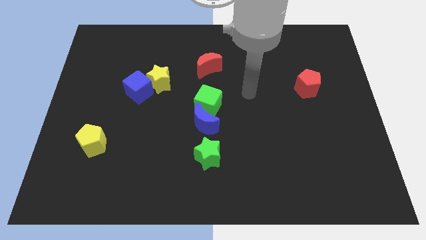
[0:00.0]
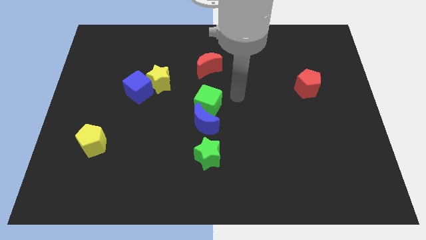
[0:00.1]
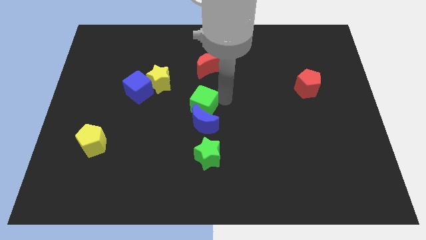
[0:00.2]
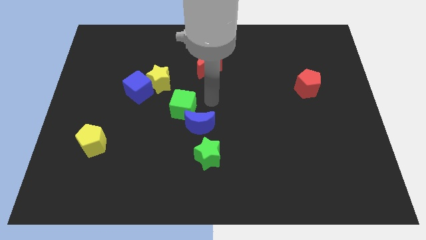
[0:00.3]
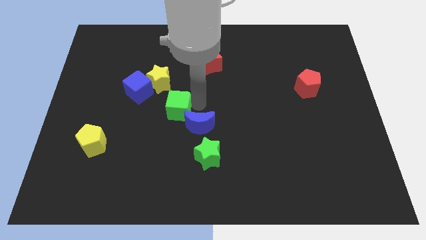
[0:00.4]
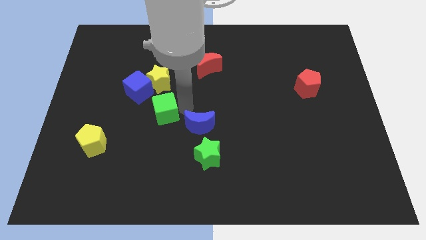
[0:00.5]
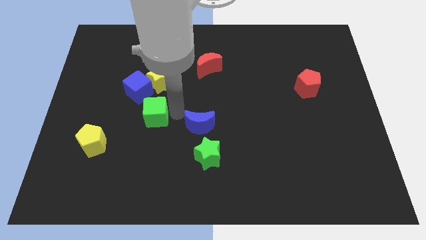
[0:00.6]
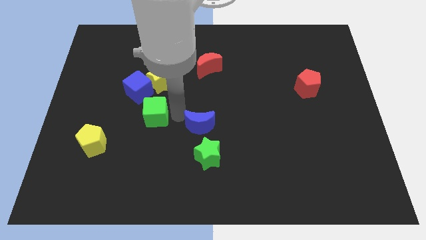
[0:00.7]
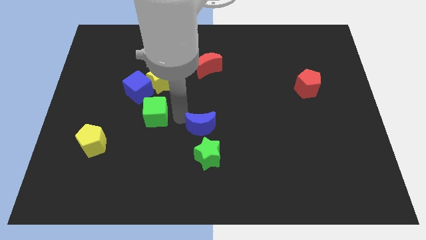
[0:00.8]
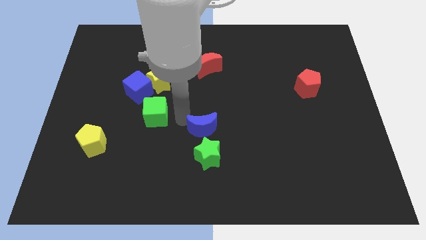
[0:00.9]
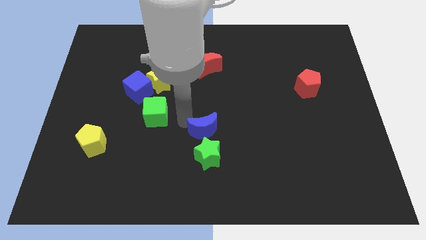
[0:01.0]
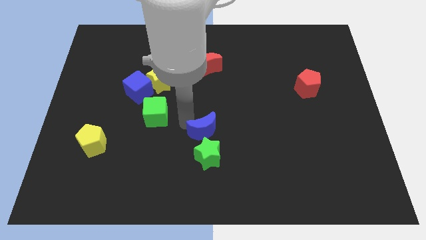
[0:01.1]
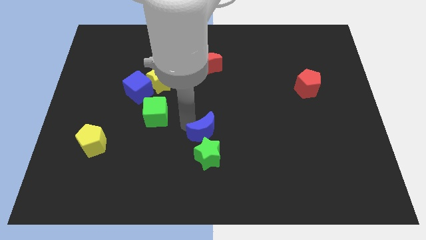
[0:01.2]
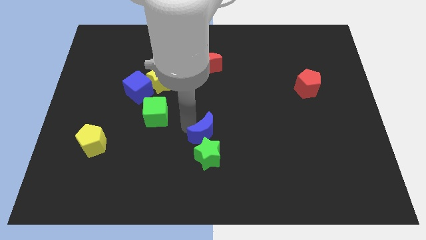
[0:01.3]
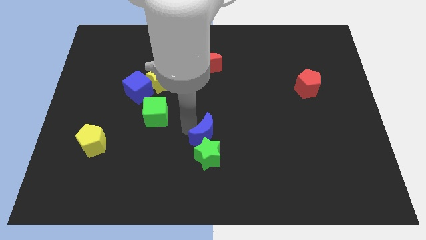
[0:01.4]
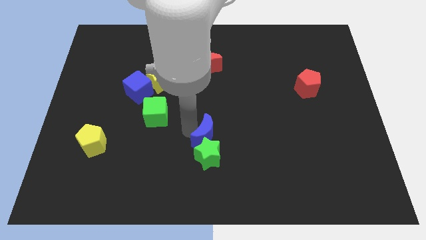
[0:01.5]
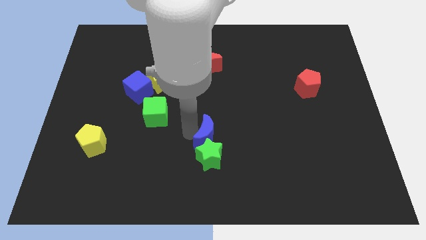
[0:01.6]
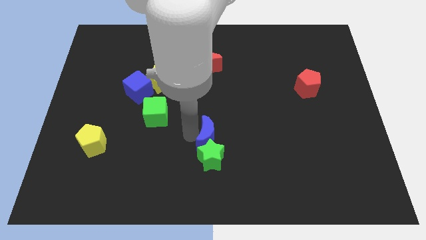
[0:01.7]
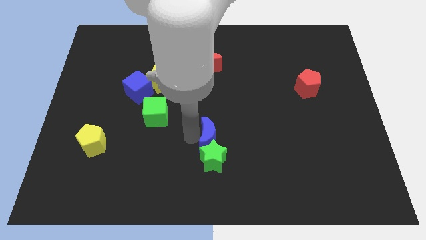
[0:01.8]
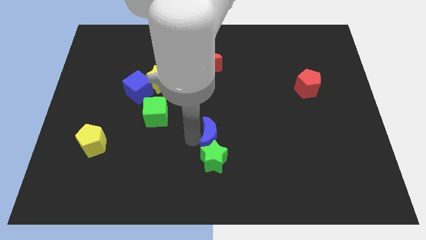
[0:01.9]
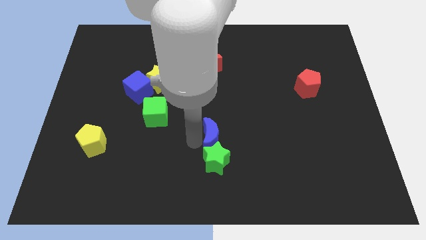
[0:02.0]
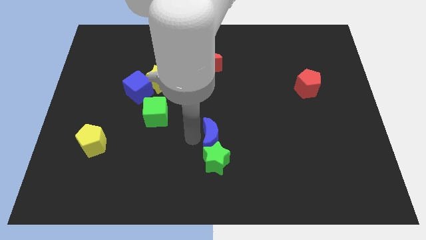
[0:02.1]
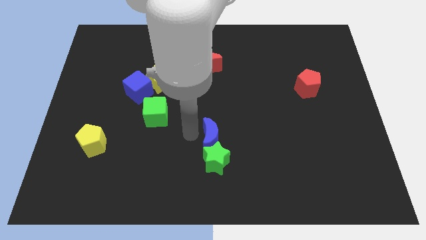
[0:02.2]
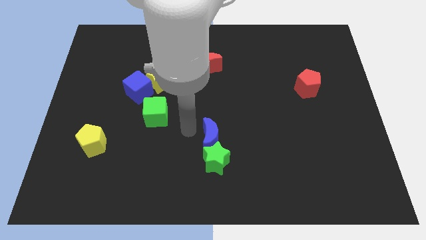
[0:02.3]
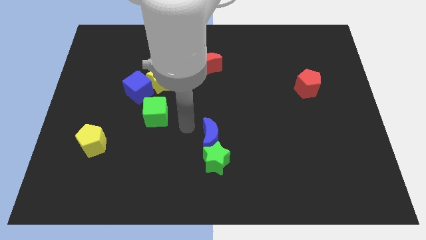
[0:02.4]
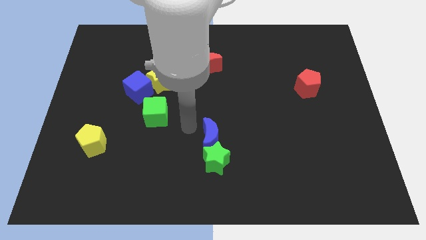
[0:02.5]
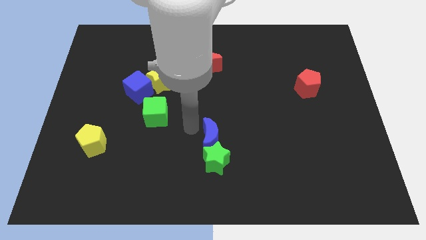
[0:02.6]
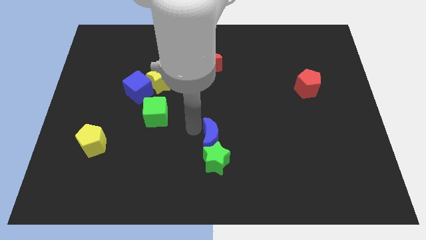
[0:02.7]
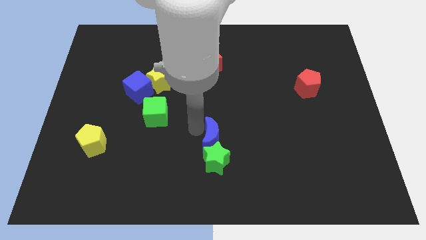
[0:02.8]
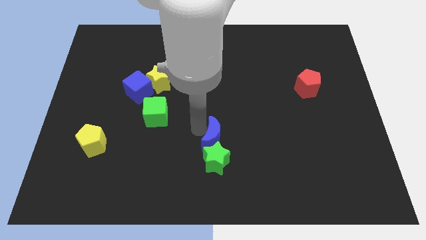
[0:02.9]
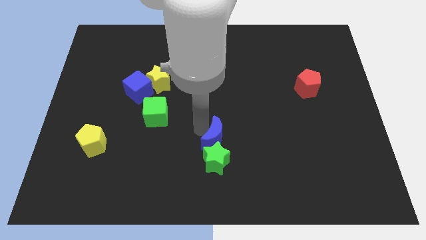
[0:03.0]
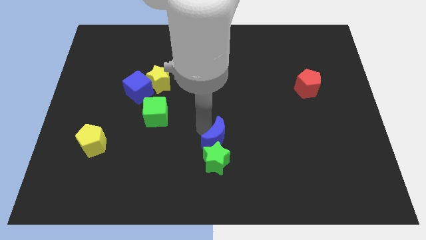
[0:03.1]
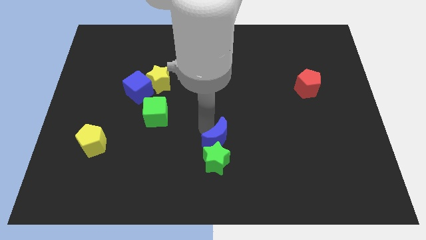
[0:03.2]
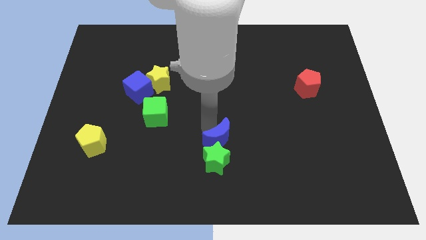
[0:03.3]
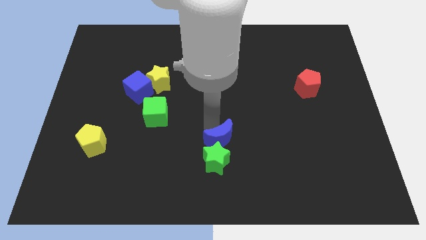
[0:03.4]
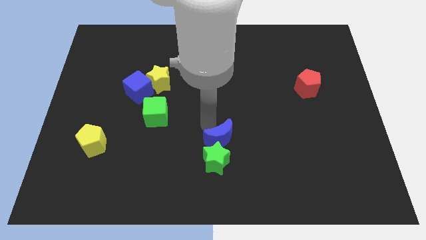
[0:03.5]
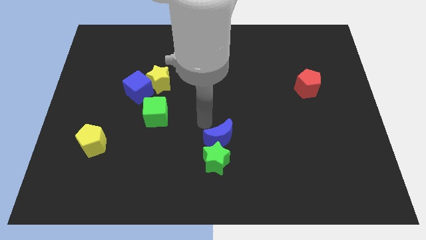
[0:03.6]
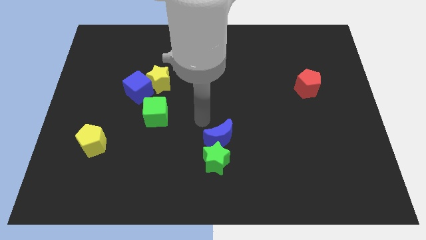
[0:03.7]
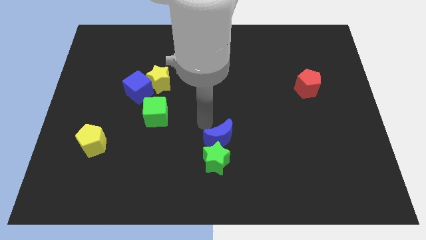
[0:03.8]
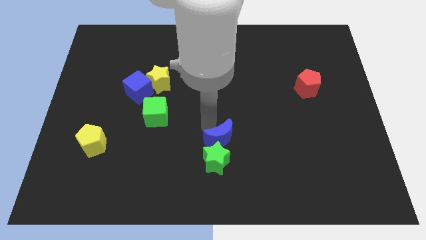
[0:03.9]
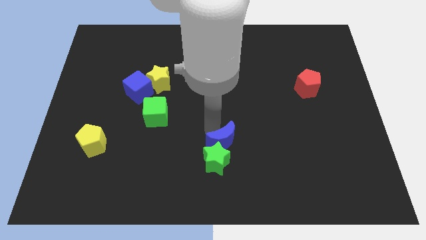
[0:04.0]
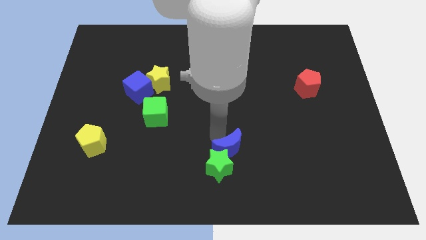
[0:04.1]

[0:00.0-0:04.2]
push the blue moon a little bit downwards and to the right diagonally

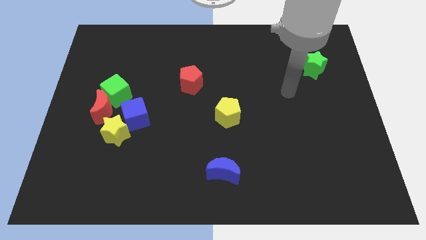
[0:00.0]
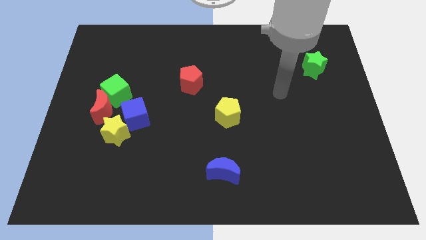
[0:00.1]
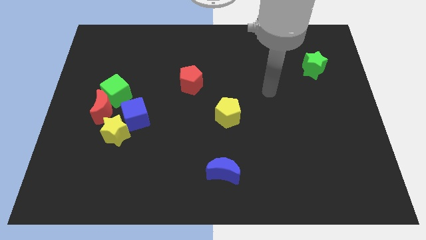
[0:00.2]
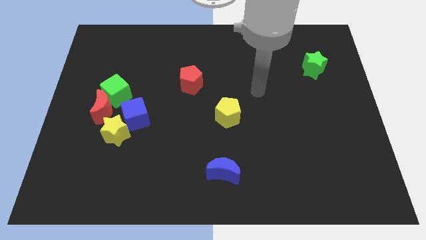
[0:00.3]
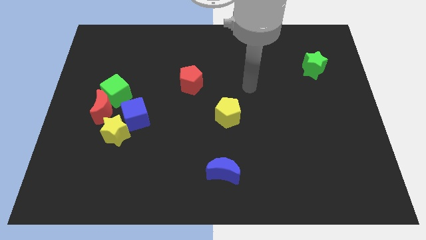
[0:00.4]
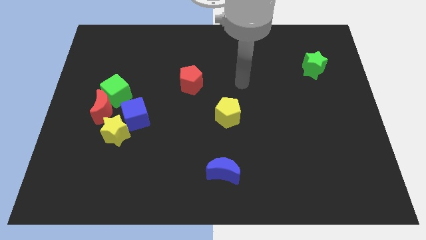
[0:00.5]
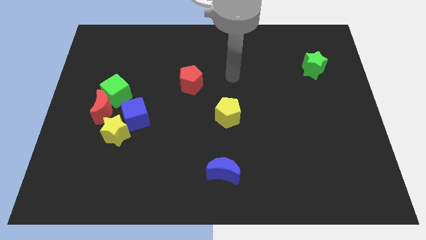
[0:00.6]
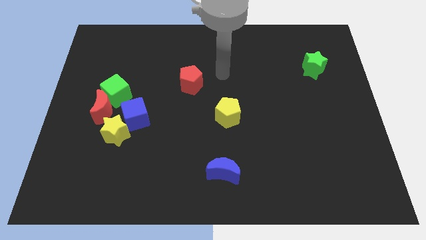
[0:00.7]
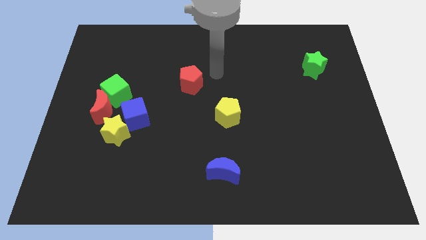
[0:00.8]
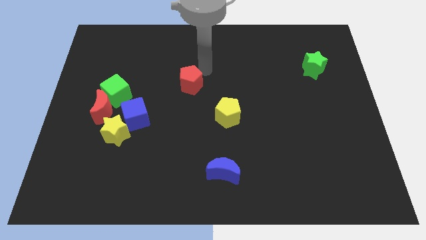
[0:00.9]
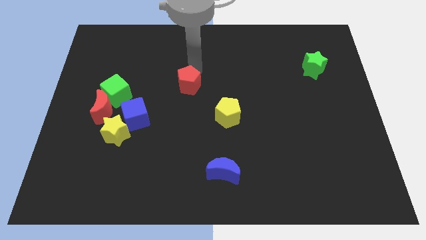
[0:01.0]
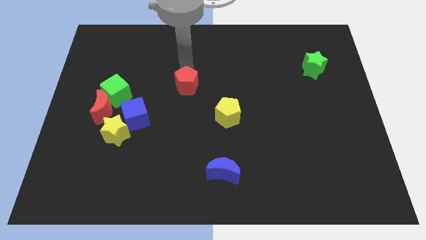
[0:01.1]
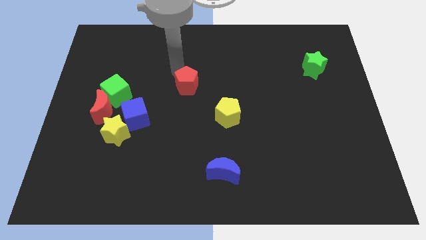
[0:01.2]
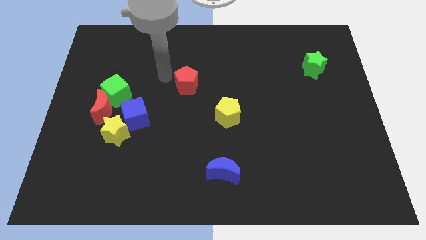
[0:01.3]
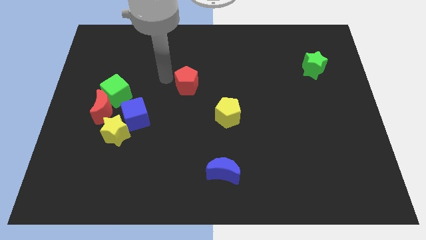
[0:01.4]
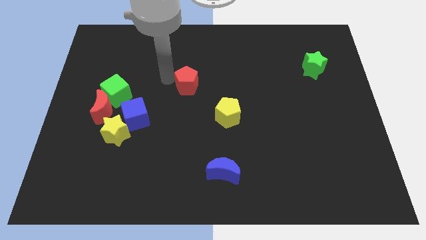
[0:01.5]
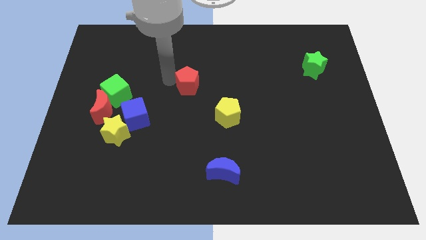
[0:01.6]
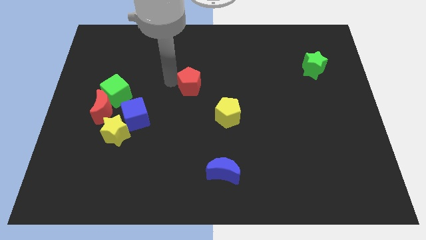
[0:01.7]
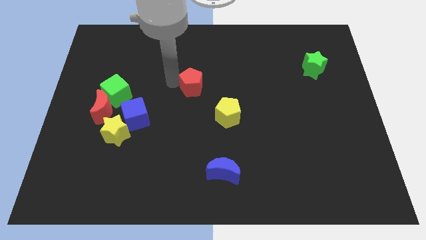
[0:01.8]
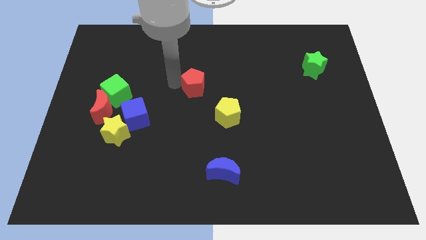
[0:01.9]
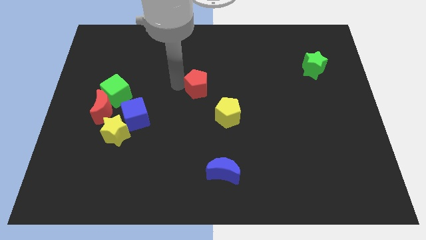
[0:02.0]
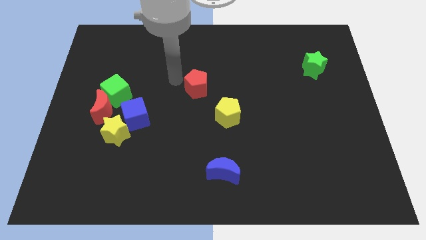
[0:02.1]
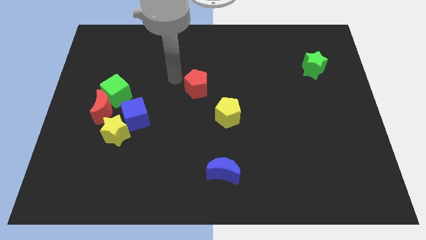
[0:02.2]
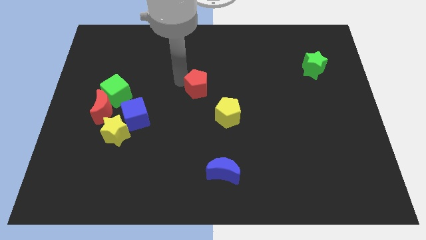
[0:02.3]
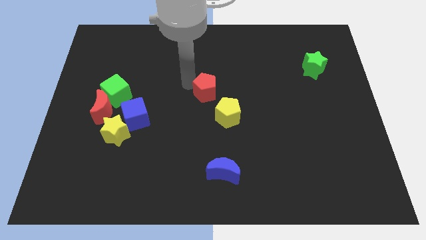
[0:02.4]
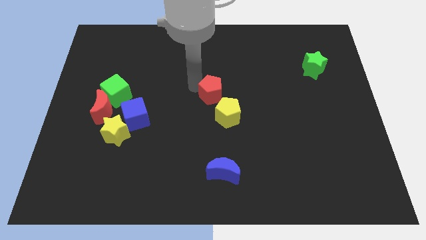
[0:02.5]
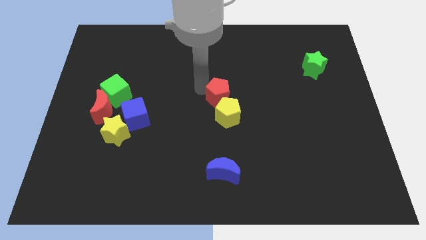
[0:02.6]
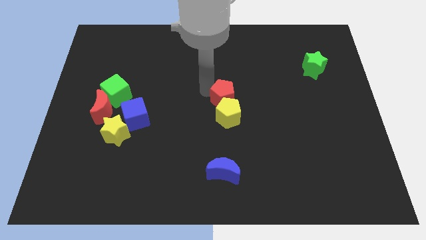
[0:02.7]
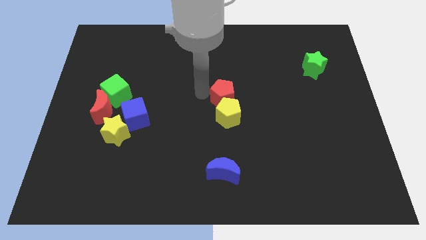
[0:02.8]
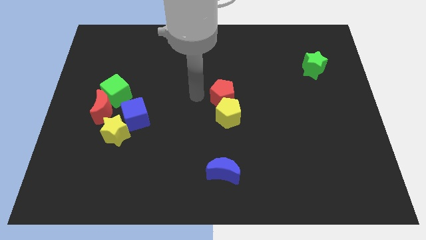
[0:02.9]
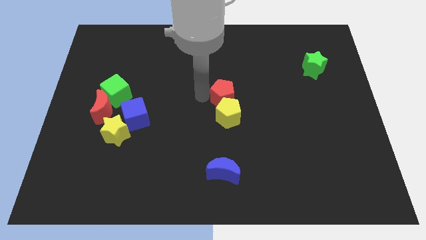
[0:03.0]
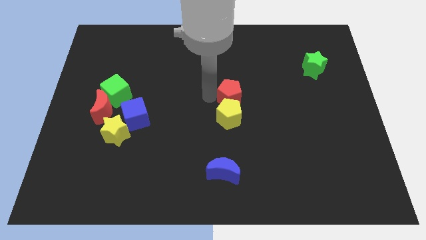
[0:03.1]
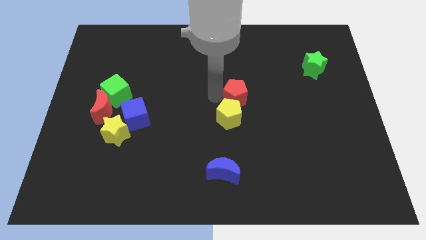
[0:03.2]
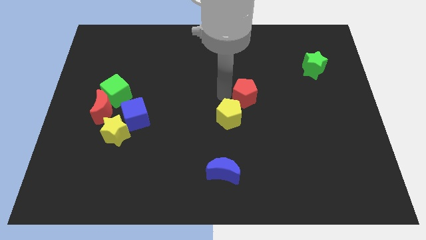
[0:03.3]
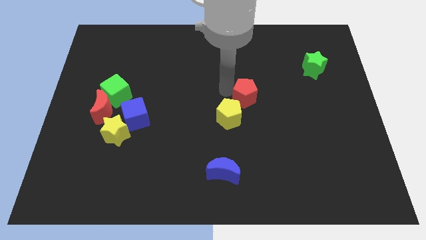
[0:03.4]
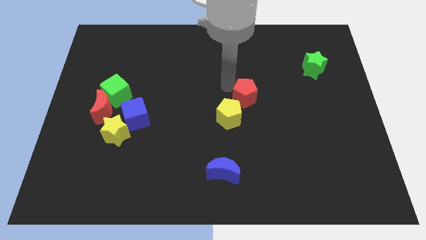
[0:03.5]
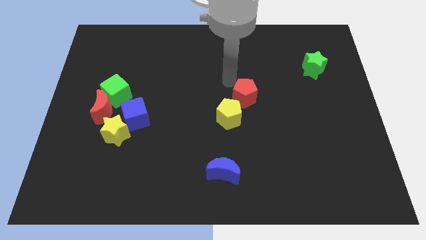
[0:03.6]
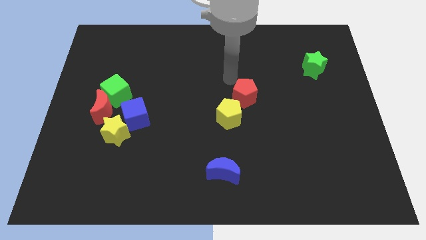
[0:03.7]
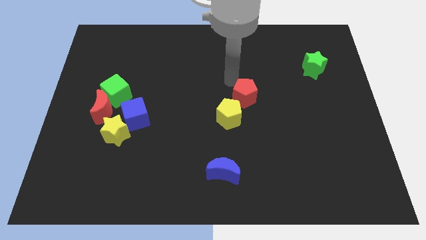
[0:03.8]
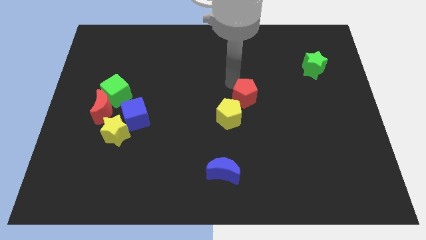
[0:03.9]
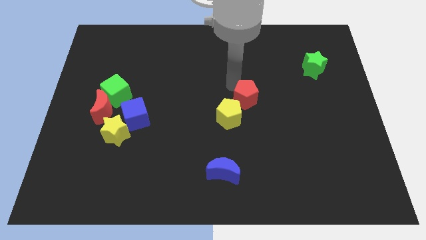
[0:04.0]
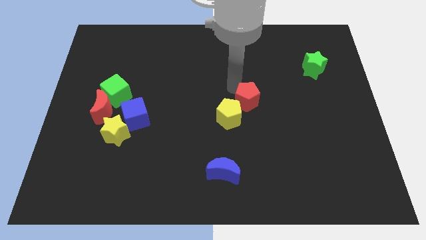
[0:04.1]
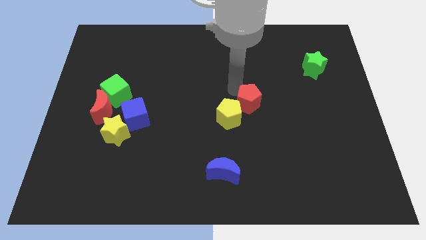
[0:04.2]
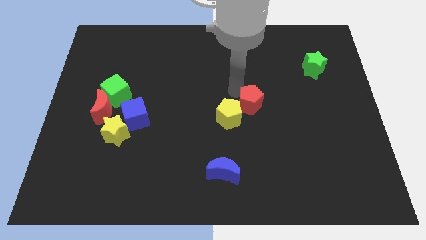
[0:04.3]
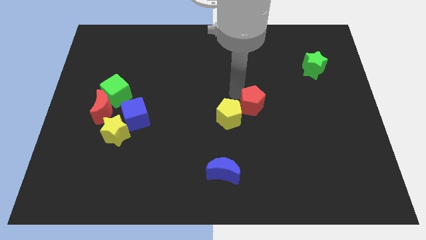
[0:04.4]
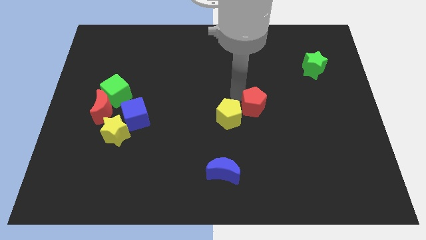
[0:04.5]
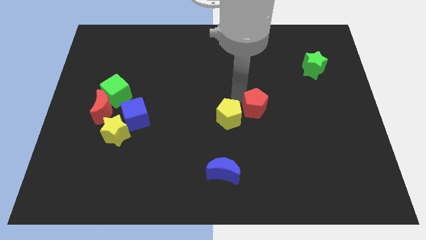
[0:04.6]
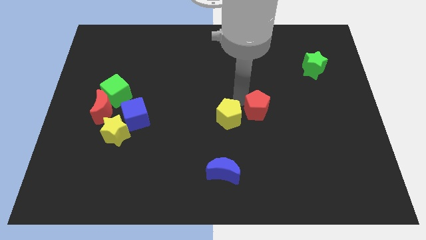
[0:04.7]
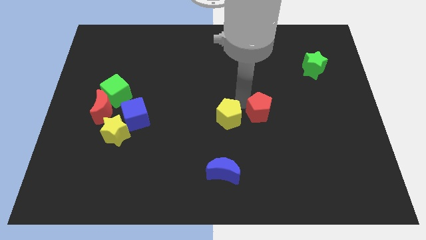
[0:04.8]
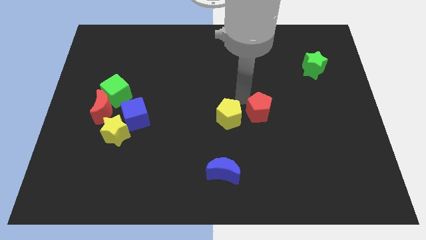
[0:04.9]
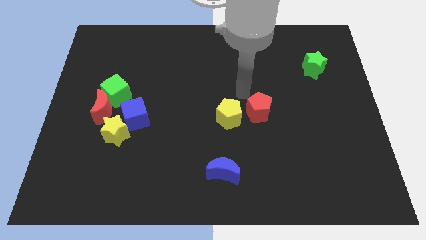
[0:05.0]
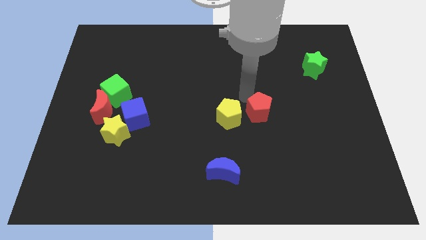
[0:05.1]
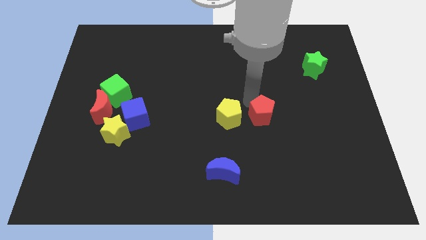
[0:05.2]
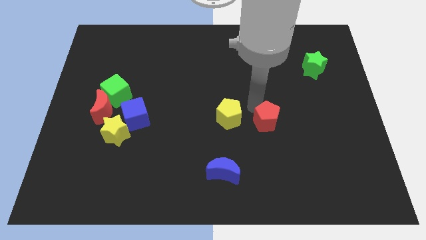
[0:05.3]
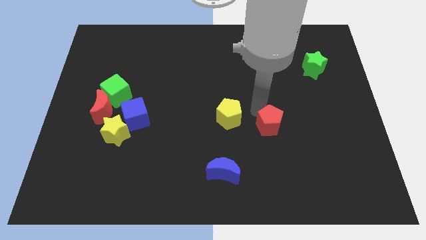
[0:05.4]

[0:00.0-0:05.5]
push the red pentagon diagonally down and to the right
